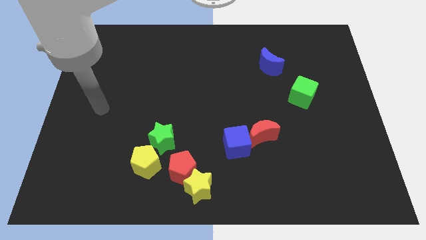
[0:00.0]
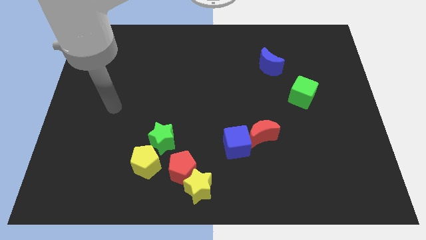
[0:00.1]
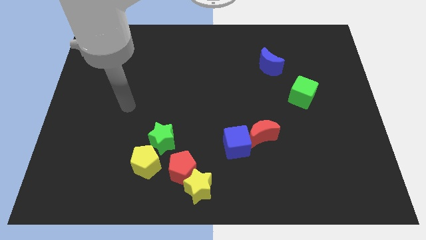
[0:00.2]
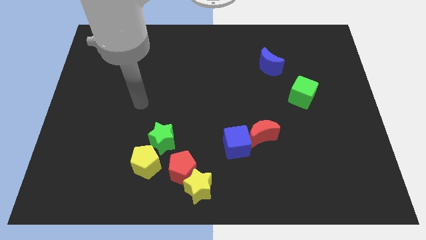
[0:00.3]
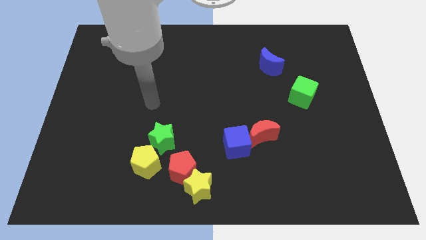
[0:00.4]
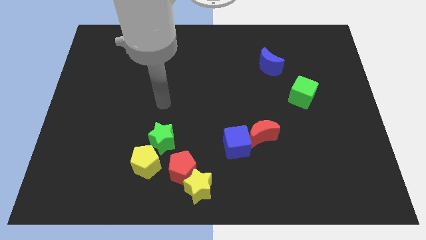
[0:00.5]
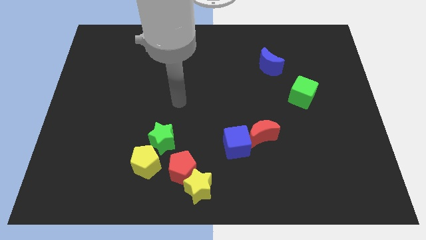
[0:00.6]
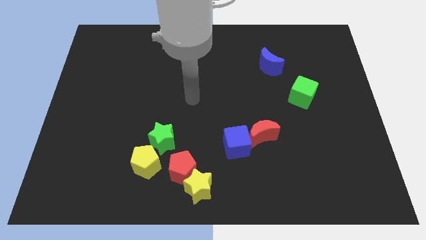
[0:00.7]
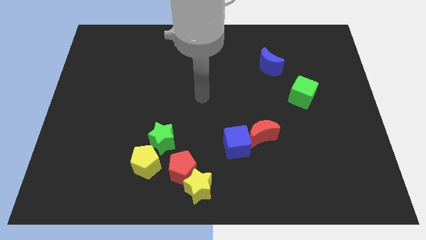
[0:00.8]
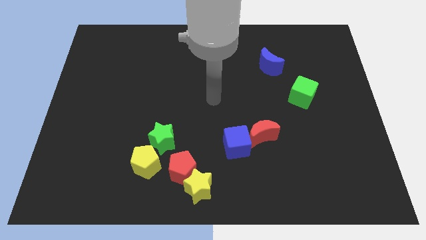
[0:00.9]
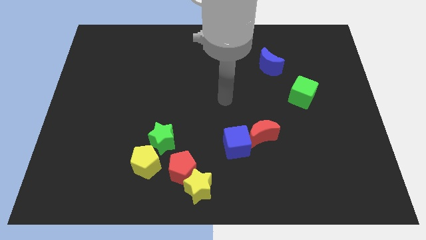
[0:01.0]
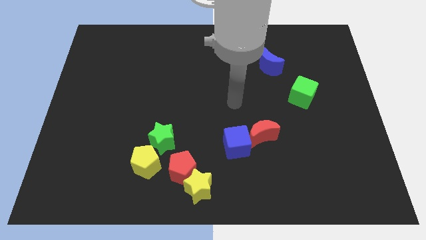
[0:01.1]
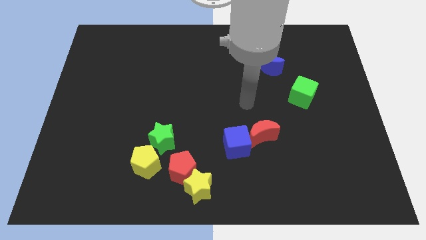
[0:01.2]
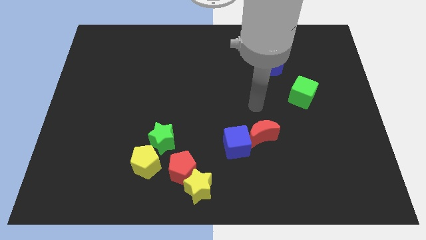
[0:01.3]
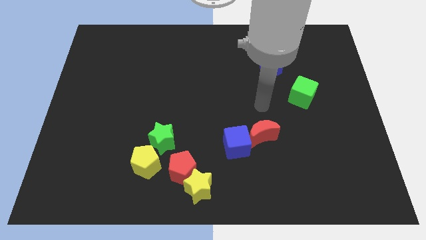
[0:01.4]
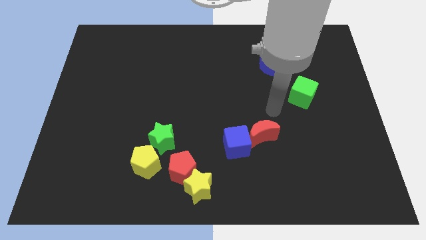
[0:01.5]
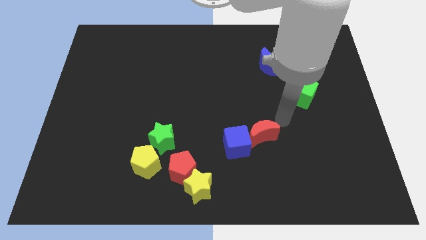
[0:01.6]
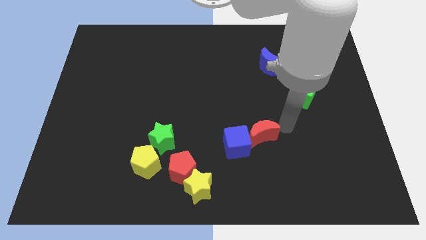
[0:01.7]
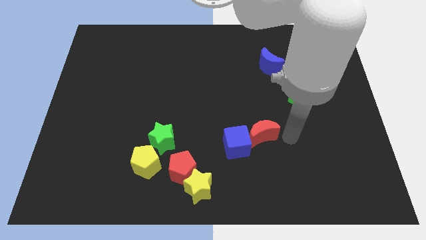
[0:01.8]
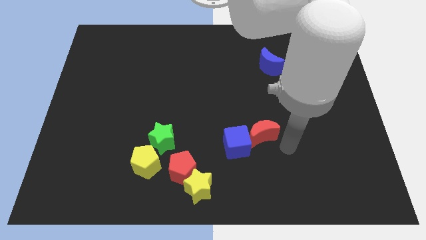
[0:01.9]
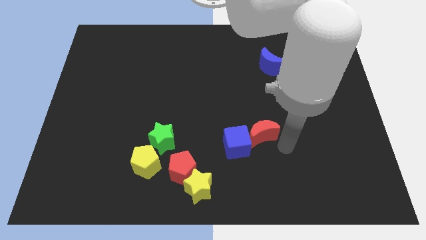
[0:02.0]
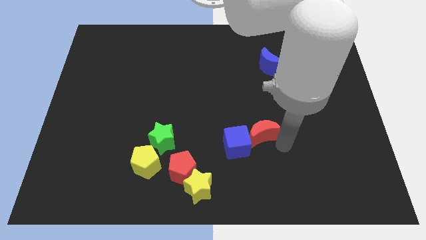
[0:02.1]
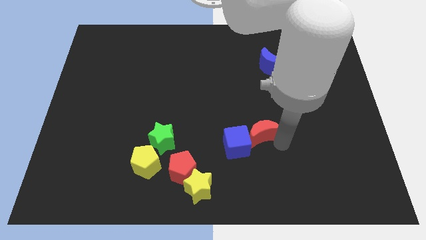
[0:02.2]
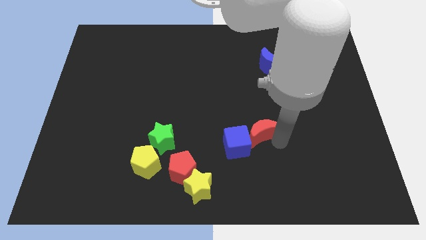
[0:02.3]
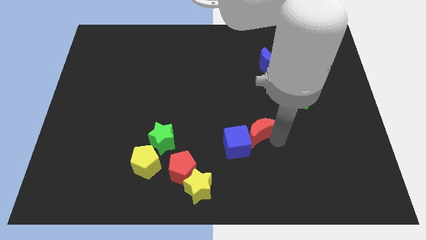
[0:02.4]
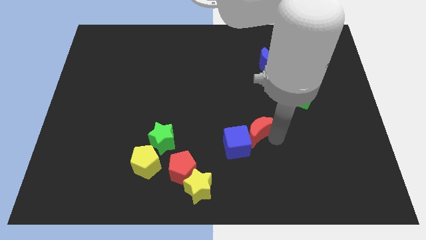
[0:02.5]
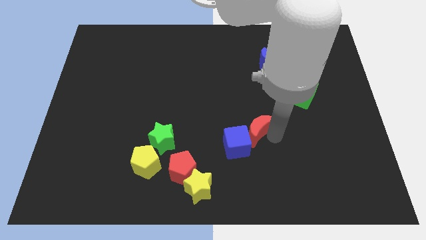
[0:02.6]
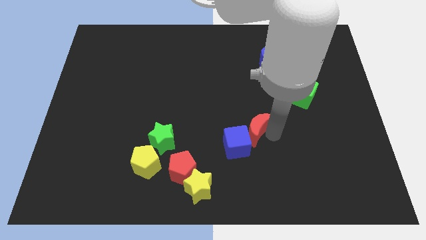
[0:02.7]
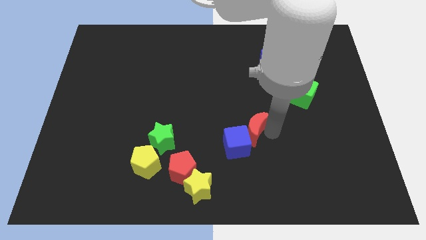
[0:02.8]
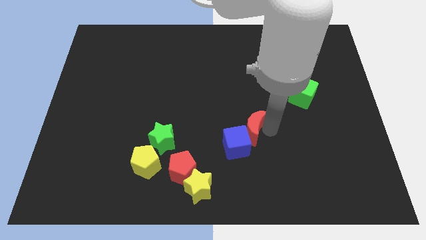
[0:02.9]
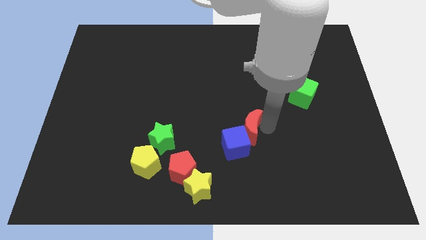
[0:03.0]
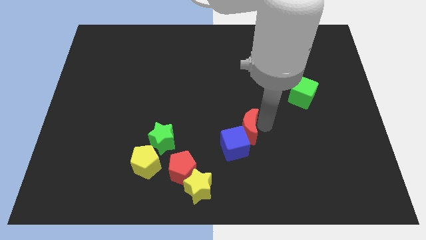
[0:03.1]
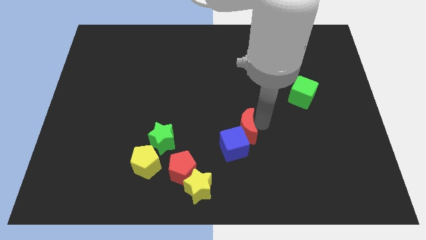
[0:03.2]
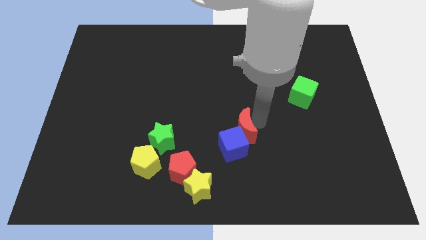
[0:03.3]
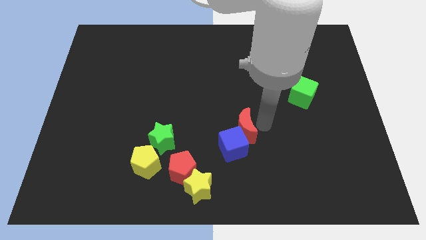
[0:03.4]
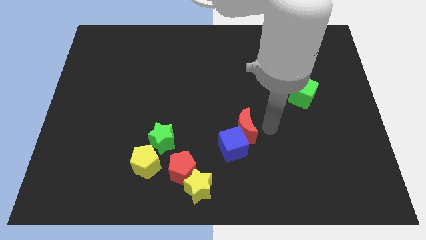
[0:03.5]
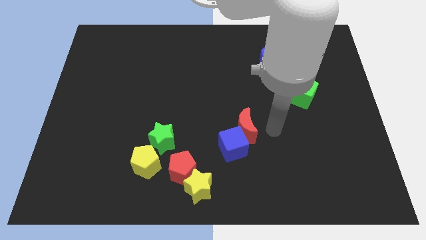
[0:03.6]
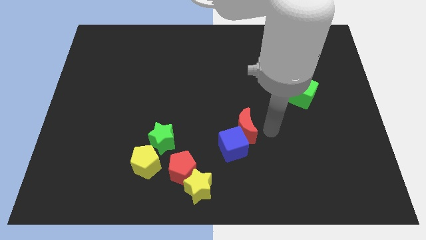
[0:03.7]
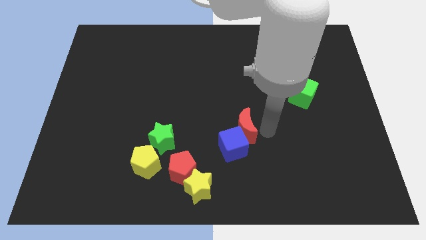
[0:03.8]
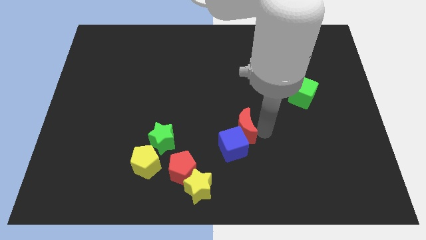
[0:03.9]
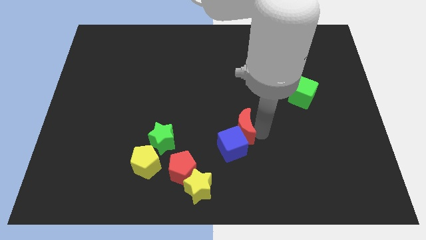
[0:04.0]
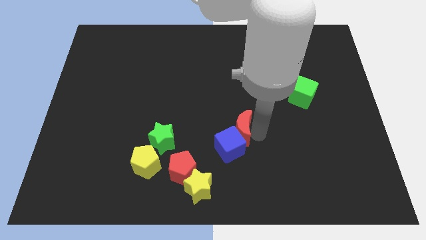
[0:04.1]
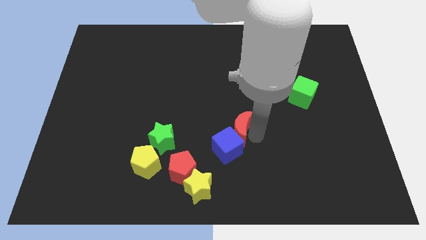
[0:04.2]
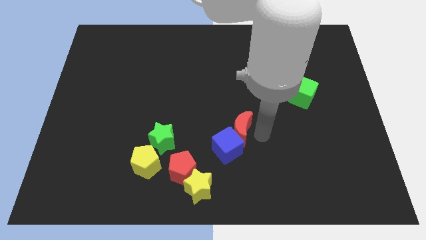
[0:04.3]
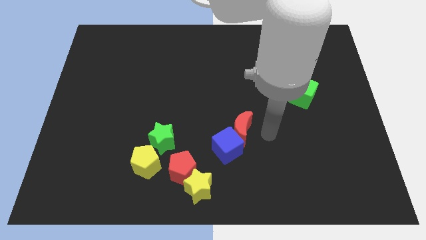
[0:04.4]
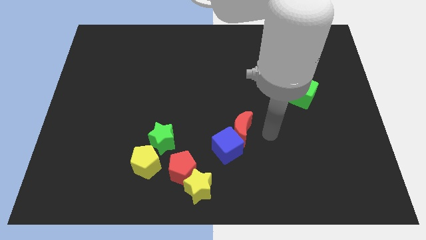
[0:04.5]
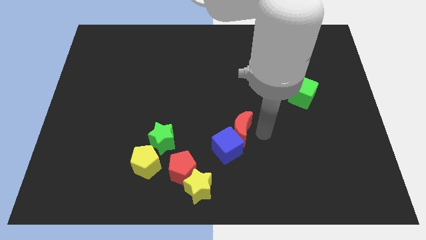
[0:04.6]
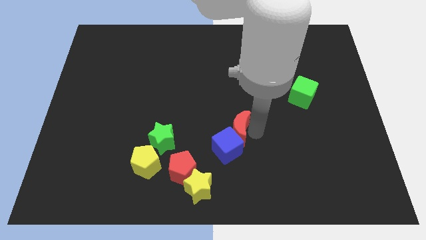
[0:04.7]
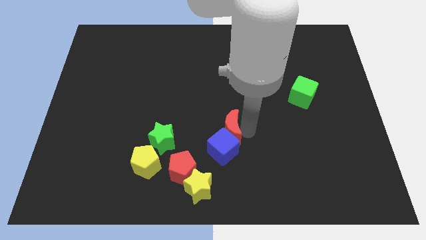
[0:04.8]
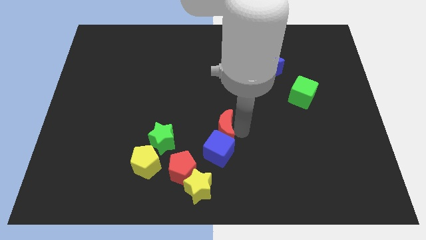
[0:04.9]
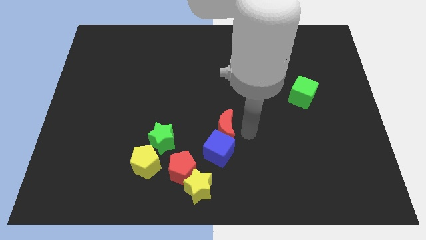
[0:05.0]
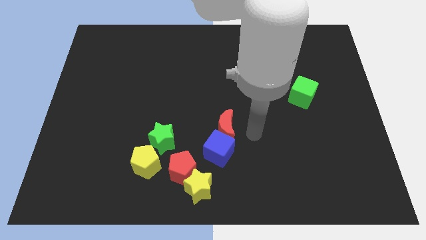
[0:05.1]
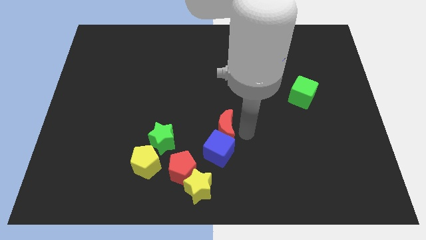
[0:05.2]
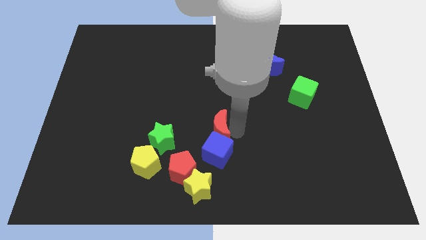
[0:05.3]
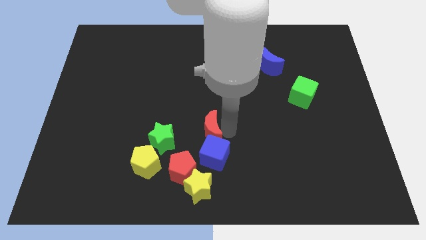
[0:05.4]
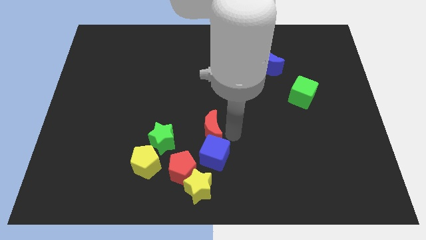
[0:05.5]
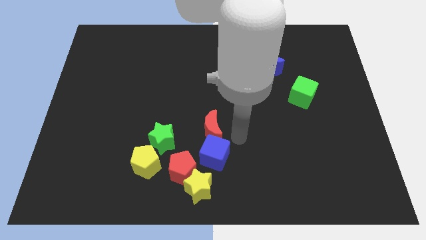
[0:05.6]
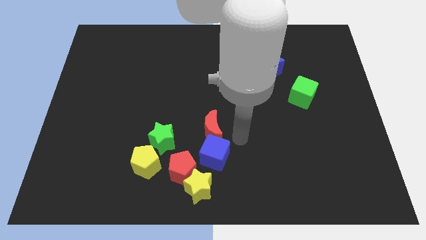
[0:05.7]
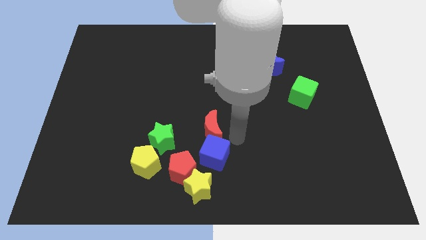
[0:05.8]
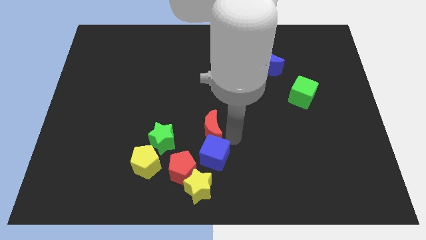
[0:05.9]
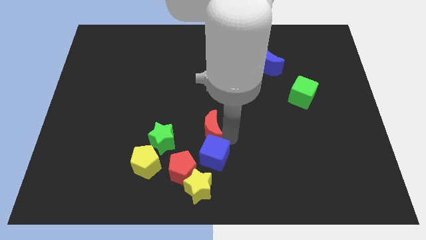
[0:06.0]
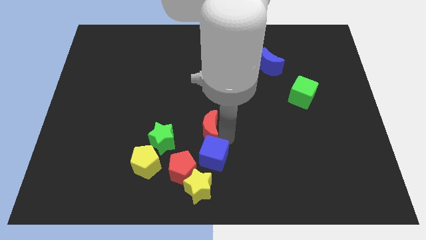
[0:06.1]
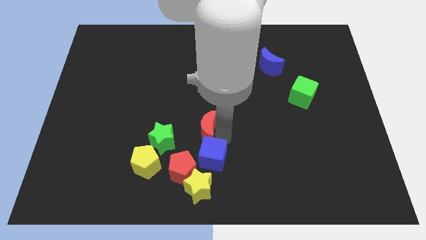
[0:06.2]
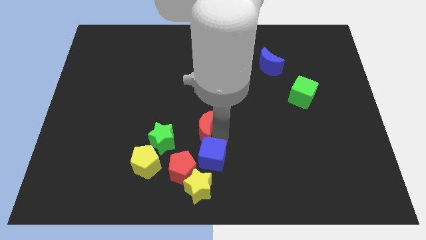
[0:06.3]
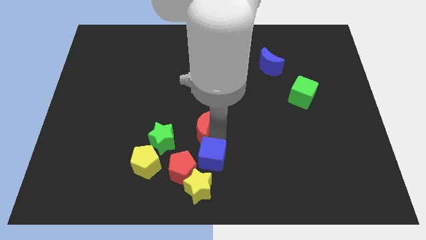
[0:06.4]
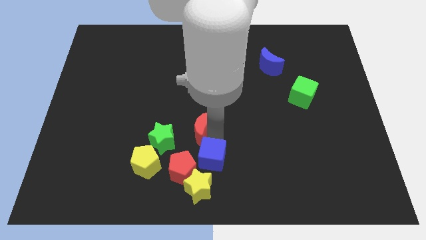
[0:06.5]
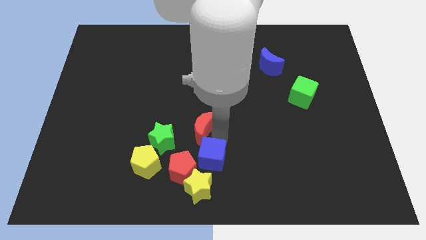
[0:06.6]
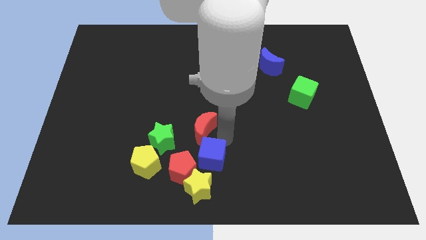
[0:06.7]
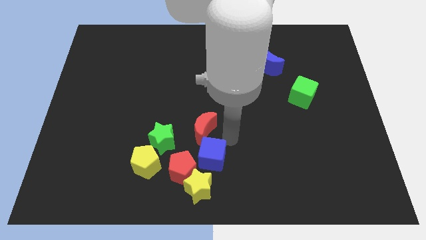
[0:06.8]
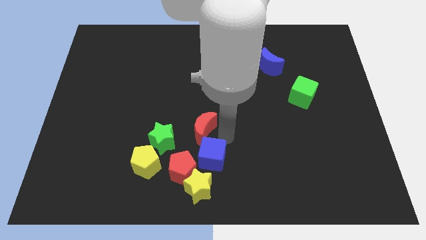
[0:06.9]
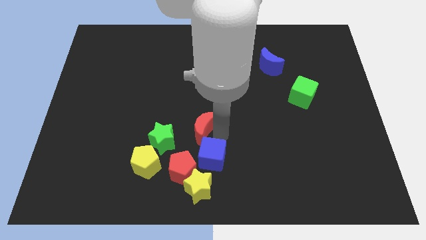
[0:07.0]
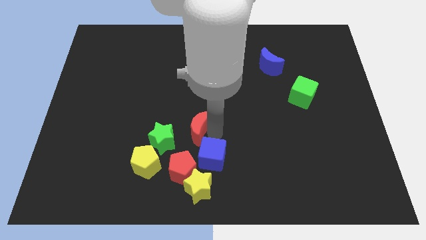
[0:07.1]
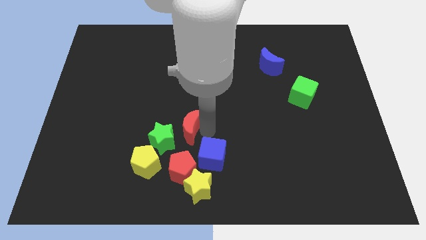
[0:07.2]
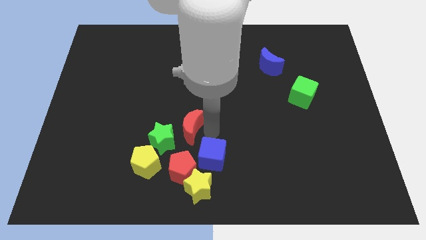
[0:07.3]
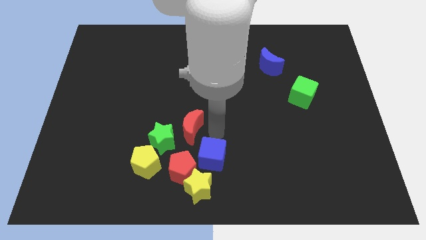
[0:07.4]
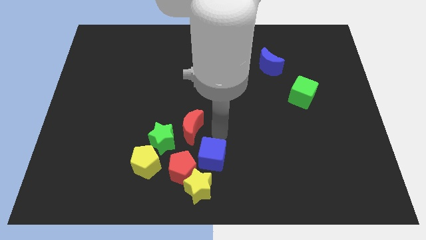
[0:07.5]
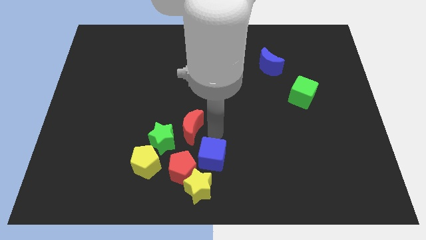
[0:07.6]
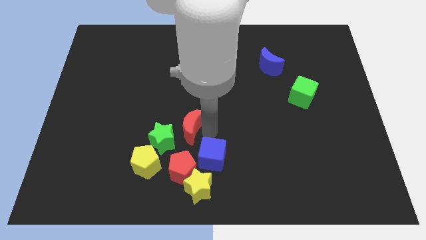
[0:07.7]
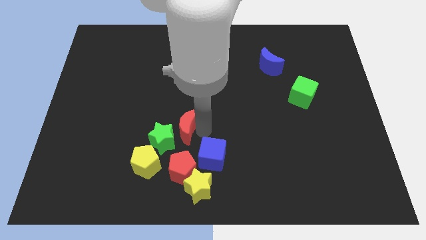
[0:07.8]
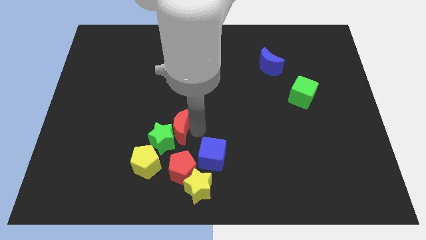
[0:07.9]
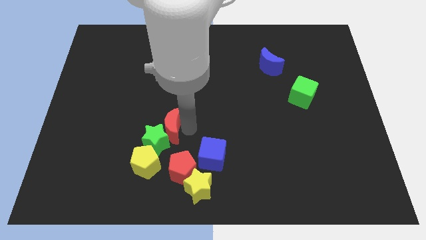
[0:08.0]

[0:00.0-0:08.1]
push the red moon to the left
